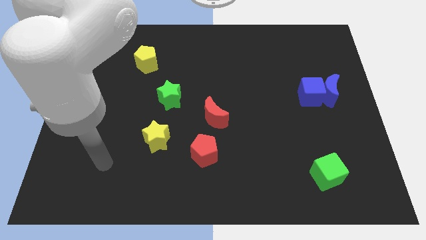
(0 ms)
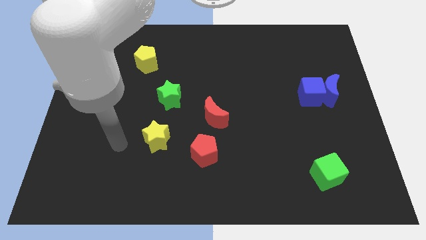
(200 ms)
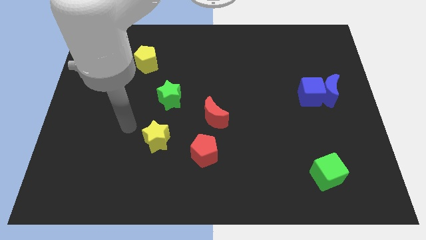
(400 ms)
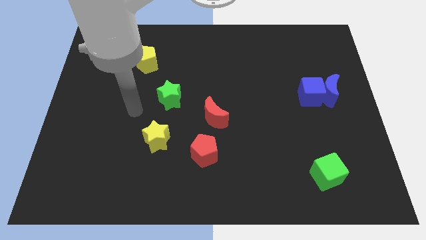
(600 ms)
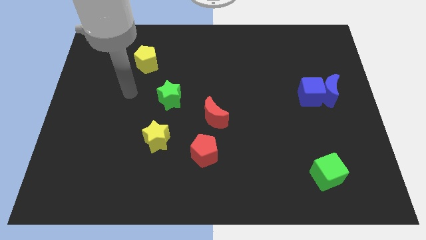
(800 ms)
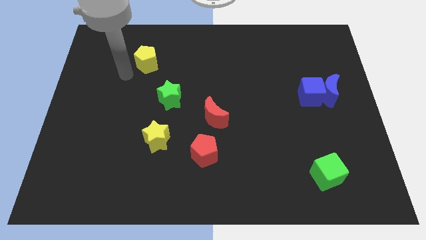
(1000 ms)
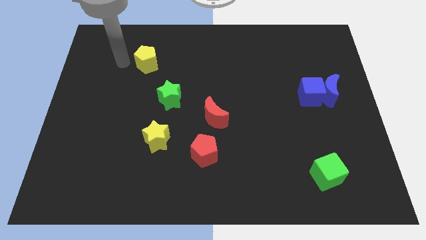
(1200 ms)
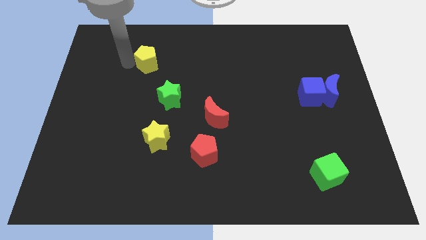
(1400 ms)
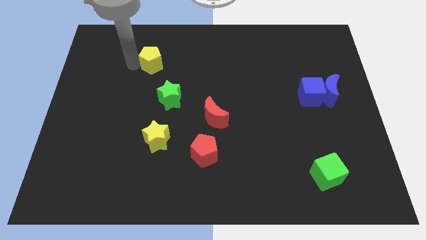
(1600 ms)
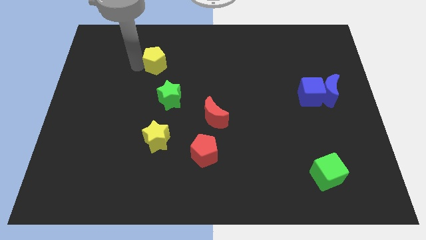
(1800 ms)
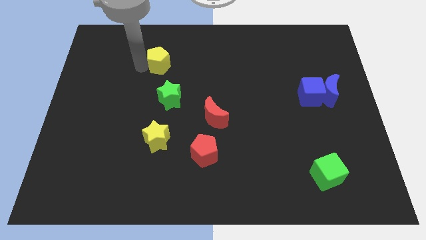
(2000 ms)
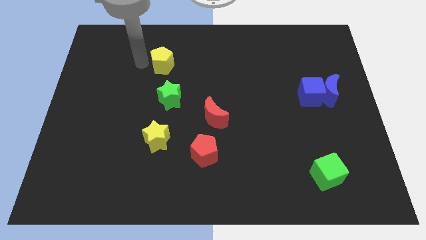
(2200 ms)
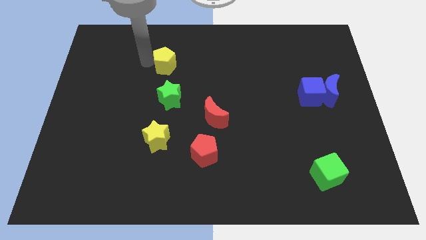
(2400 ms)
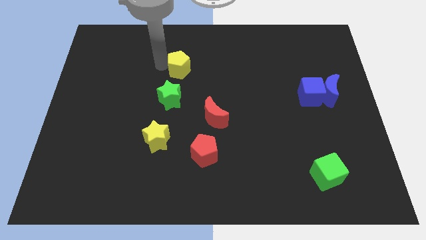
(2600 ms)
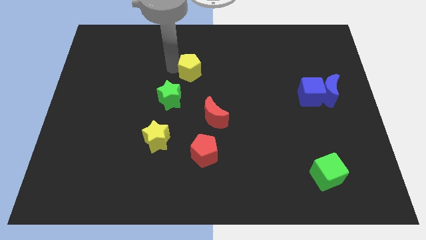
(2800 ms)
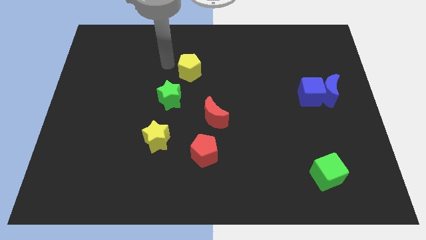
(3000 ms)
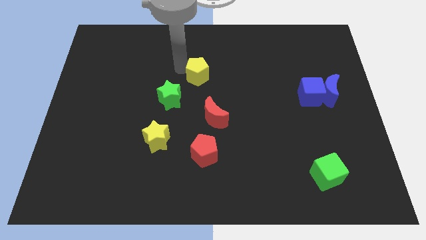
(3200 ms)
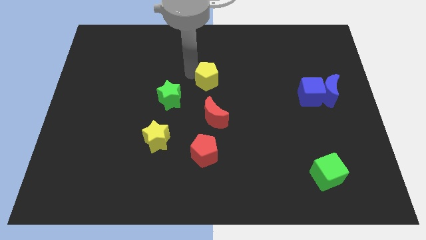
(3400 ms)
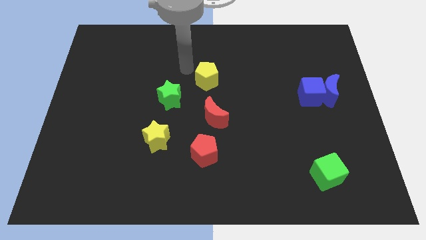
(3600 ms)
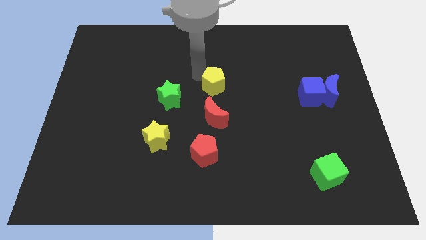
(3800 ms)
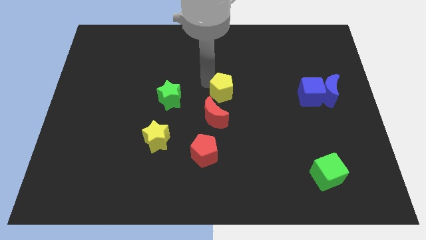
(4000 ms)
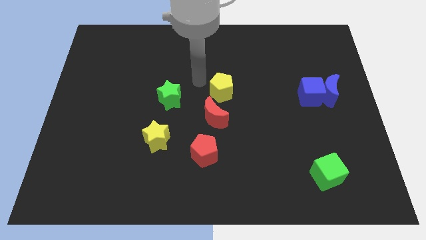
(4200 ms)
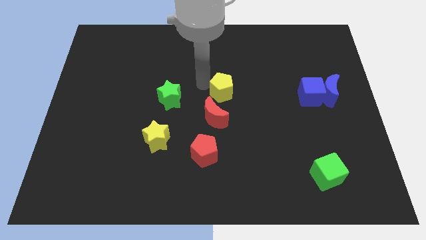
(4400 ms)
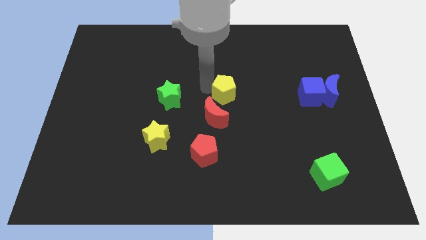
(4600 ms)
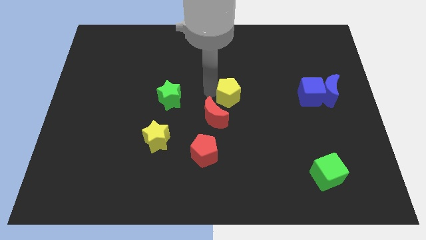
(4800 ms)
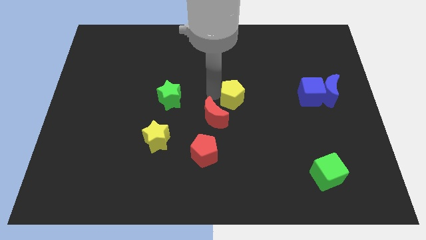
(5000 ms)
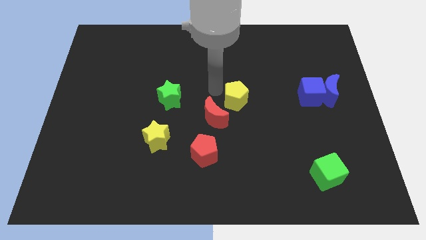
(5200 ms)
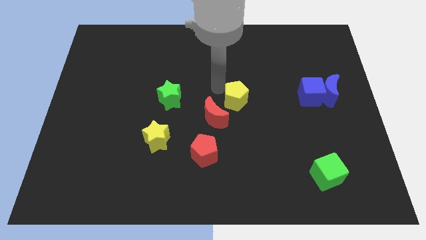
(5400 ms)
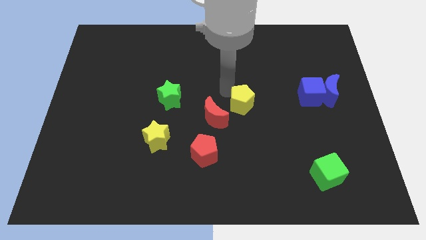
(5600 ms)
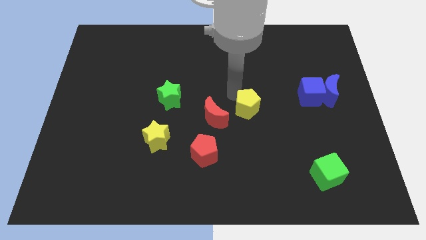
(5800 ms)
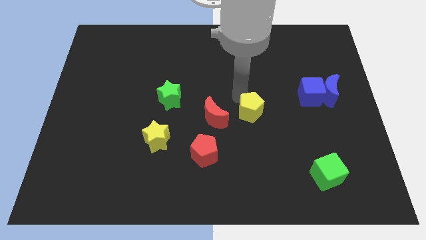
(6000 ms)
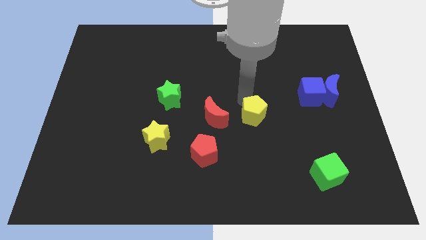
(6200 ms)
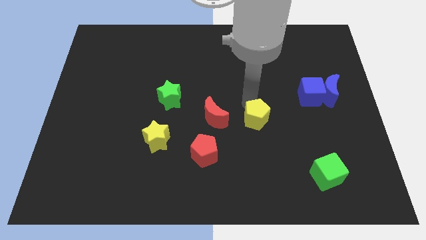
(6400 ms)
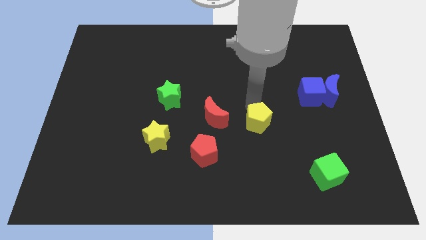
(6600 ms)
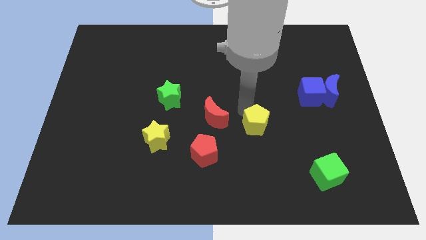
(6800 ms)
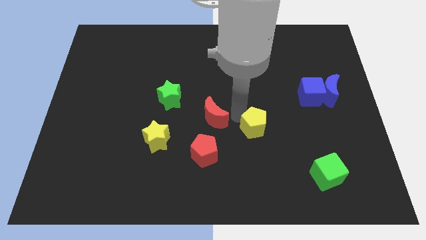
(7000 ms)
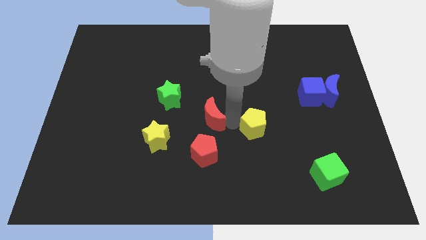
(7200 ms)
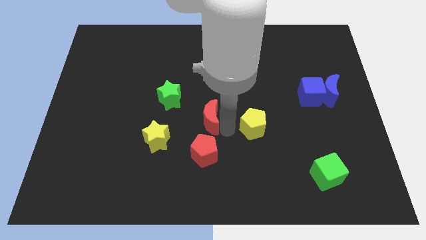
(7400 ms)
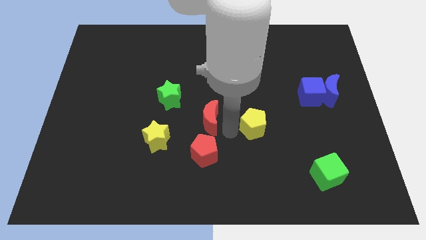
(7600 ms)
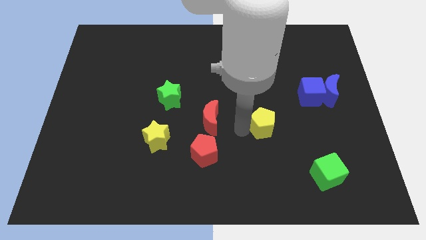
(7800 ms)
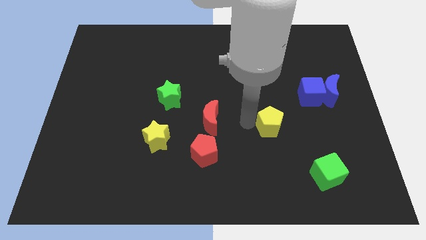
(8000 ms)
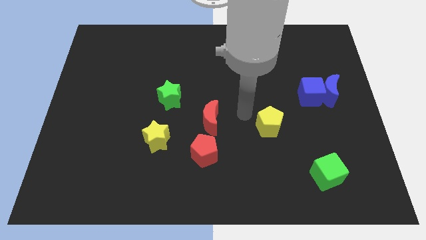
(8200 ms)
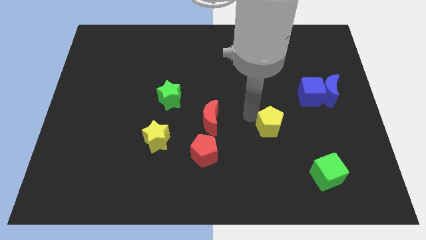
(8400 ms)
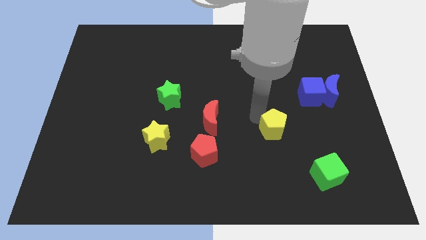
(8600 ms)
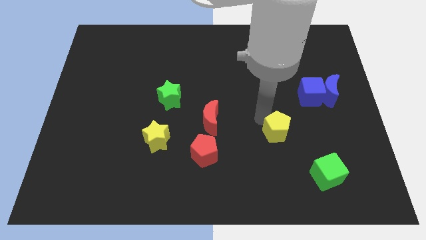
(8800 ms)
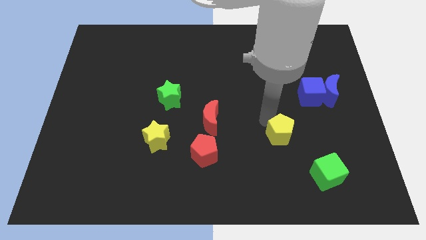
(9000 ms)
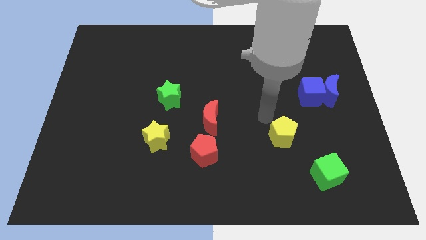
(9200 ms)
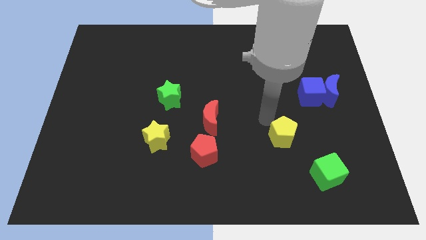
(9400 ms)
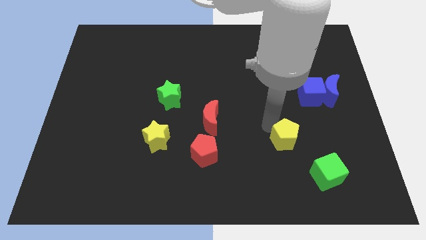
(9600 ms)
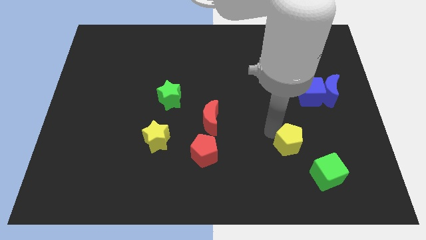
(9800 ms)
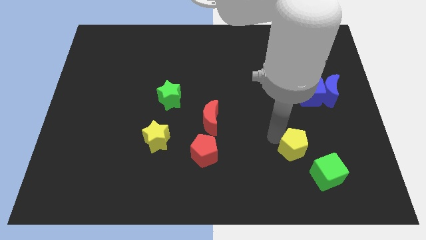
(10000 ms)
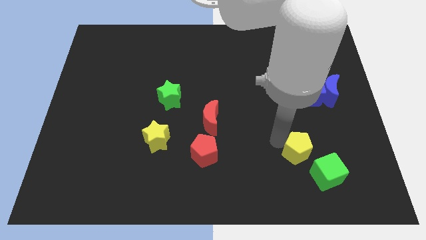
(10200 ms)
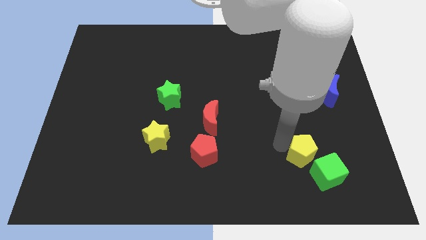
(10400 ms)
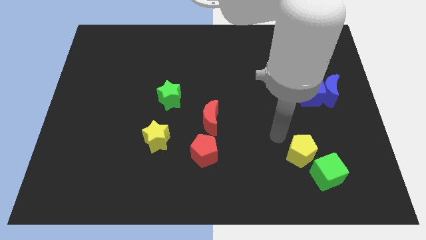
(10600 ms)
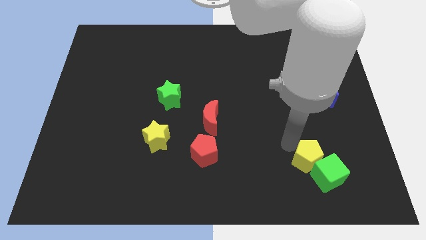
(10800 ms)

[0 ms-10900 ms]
push the yellow pentagon next to the green cube

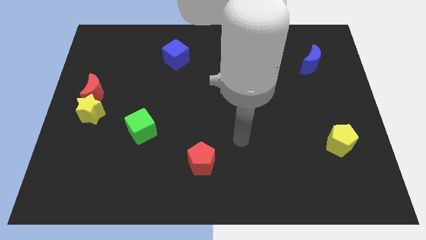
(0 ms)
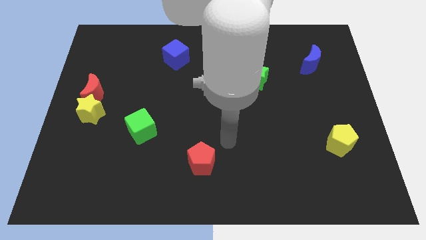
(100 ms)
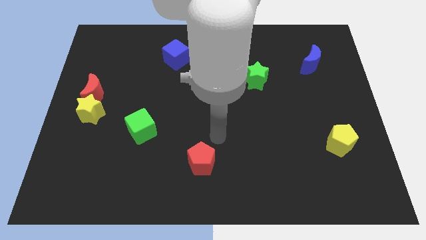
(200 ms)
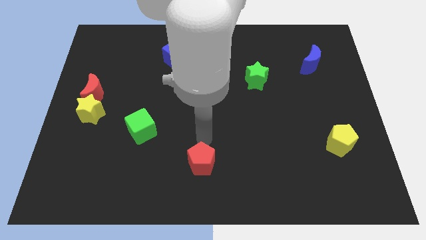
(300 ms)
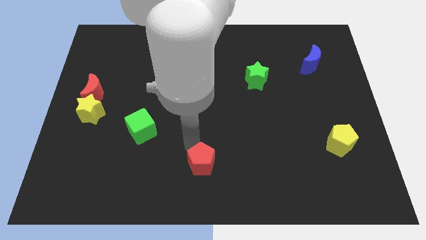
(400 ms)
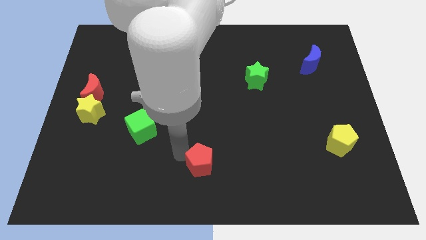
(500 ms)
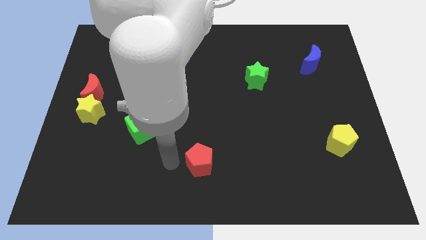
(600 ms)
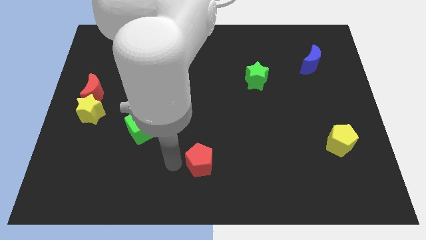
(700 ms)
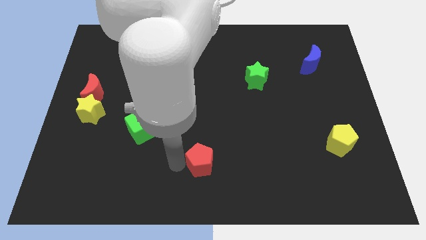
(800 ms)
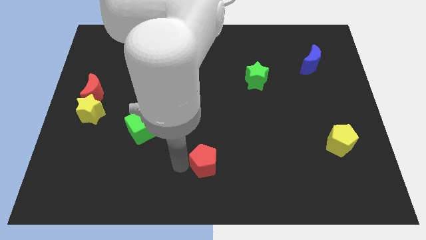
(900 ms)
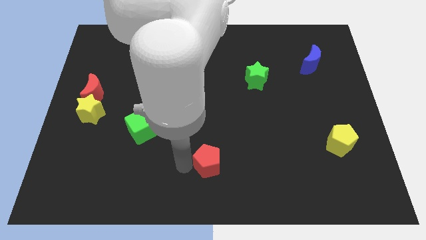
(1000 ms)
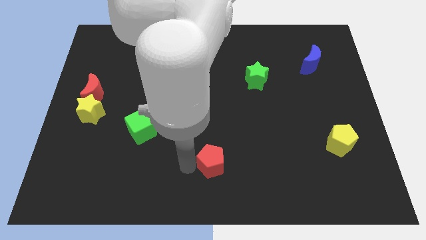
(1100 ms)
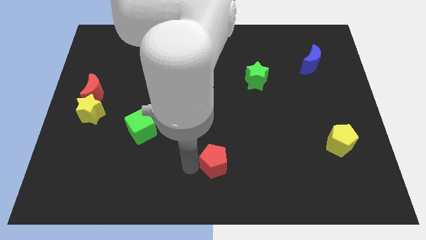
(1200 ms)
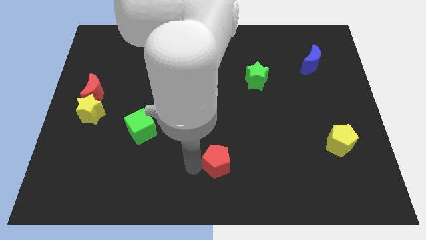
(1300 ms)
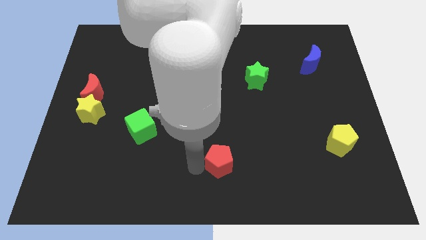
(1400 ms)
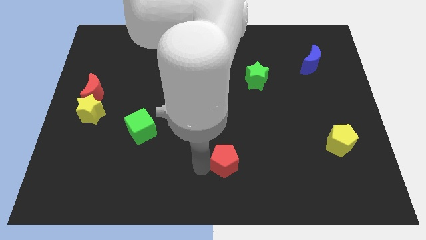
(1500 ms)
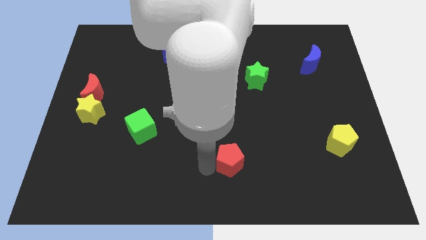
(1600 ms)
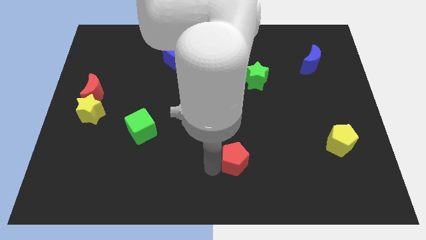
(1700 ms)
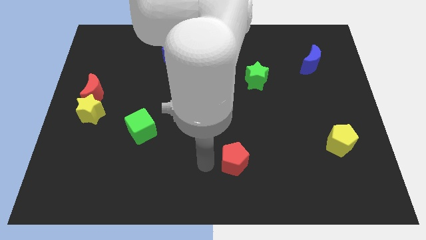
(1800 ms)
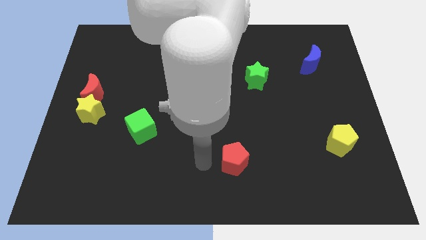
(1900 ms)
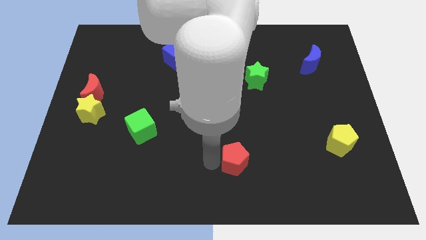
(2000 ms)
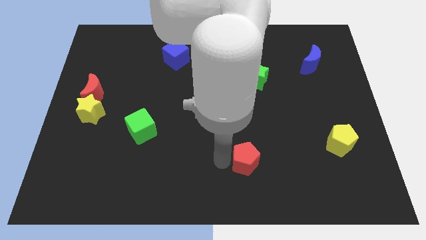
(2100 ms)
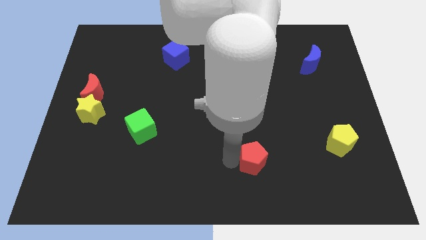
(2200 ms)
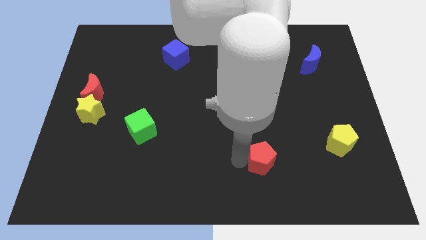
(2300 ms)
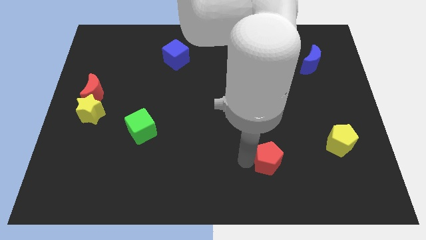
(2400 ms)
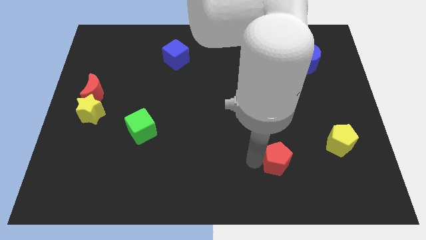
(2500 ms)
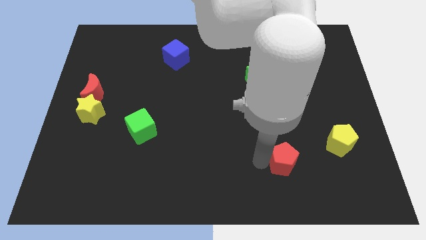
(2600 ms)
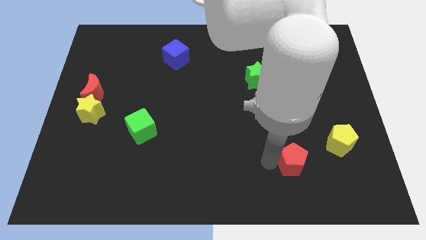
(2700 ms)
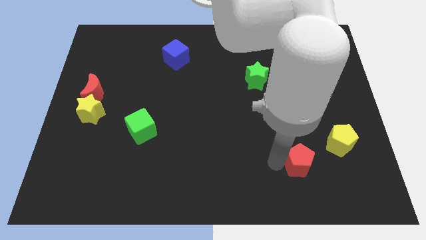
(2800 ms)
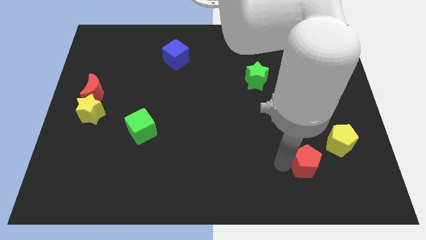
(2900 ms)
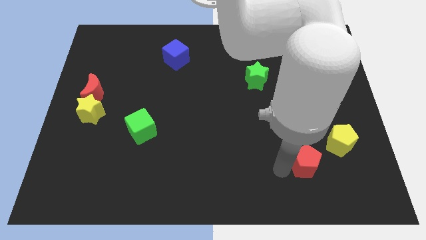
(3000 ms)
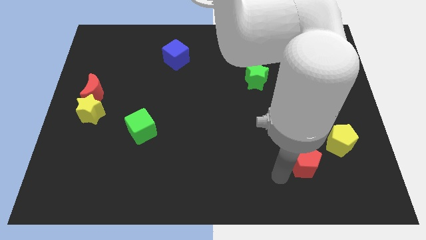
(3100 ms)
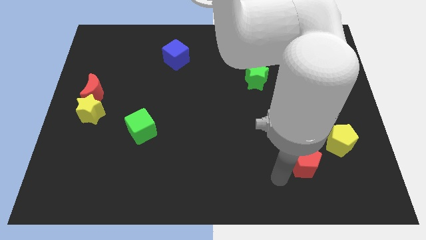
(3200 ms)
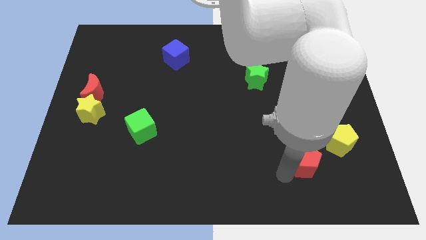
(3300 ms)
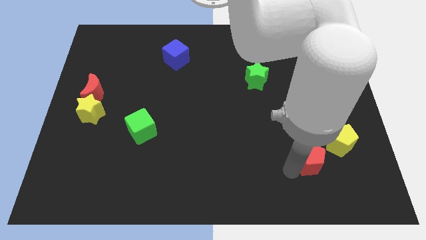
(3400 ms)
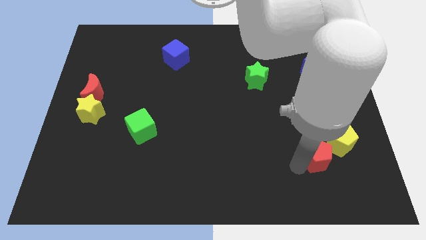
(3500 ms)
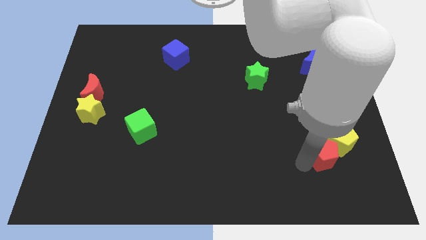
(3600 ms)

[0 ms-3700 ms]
move the red pentagon close to the yellow pentagon
